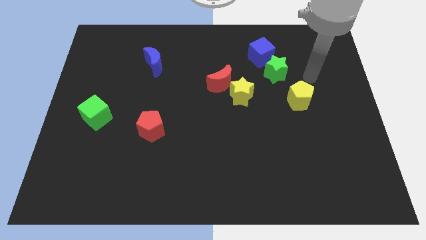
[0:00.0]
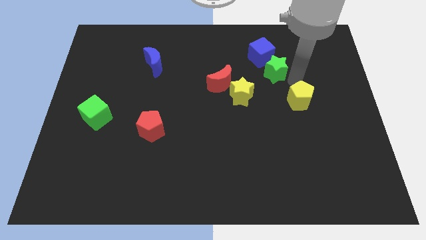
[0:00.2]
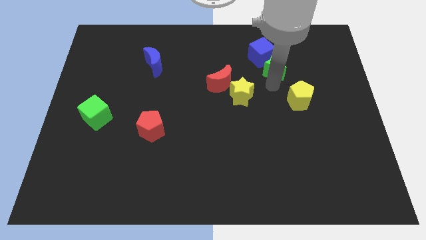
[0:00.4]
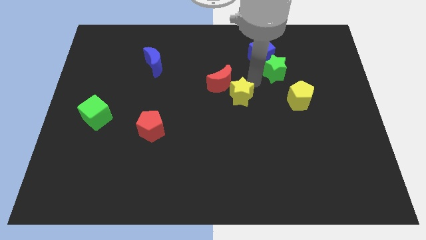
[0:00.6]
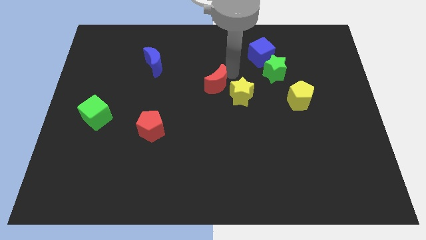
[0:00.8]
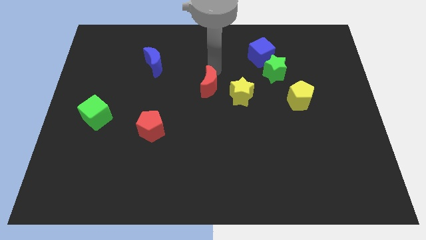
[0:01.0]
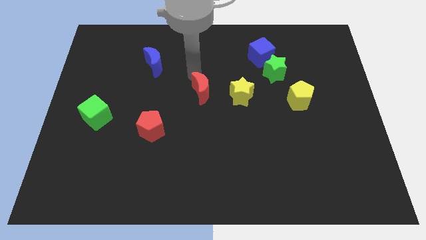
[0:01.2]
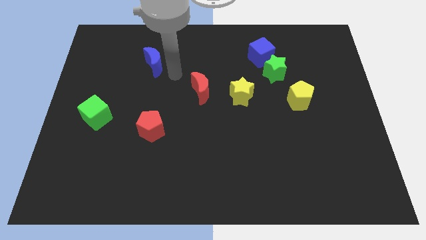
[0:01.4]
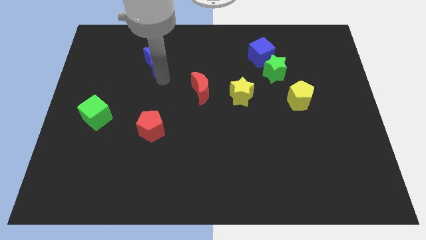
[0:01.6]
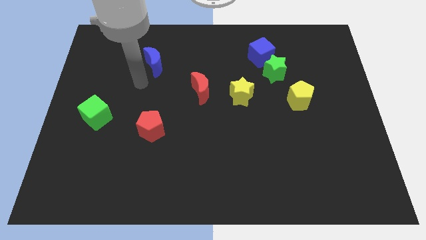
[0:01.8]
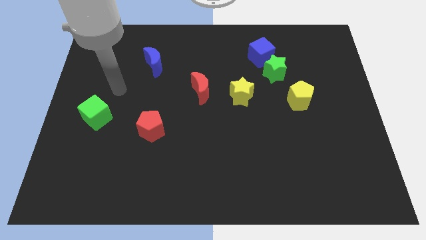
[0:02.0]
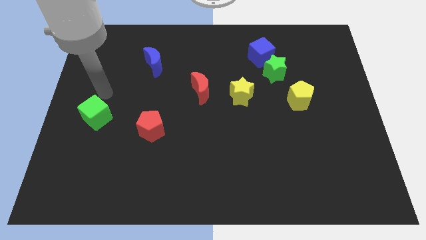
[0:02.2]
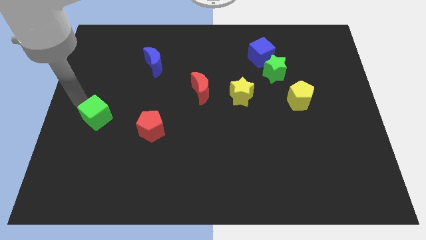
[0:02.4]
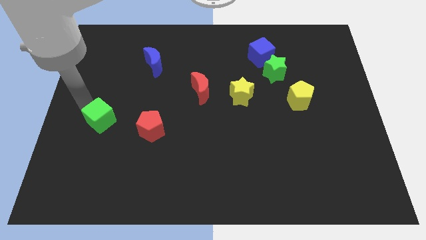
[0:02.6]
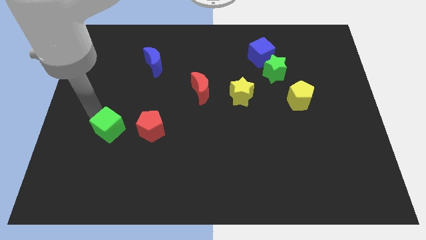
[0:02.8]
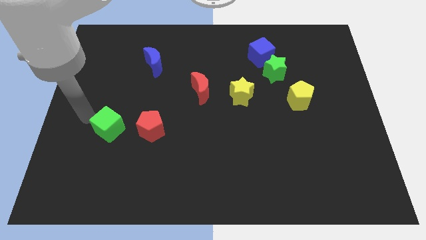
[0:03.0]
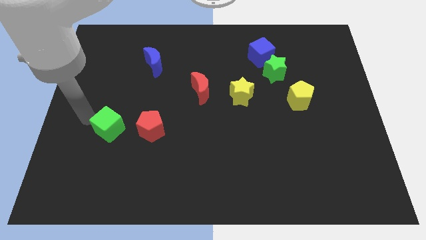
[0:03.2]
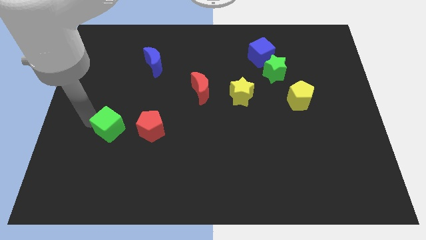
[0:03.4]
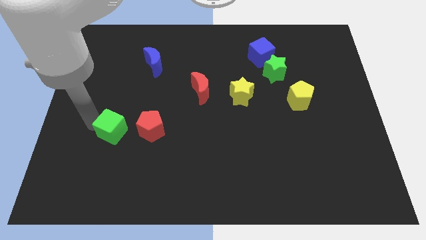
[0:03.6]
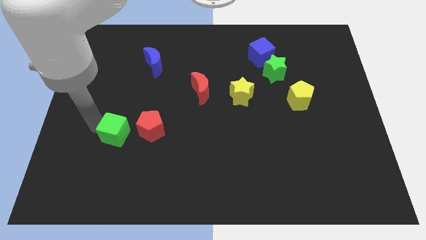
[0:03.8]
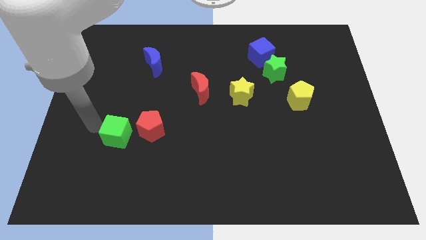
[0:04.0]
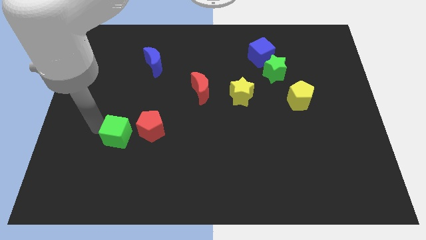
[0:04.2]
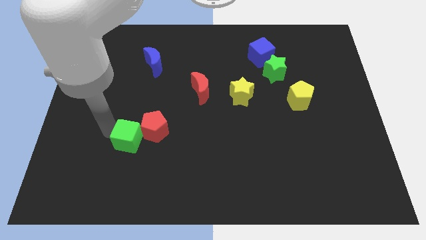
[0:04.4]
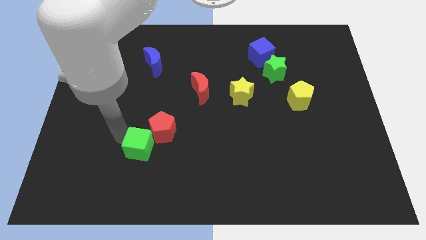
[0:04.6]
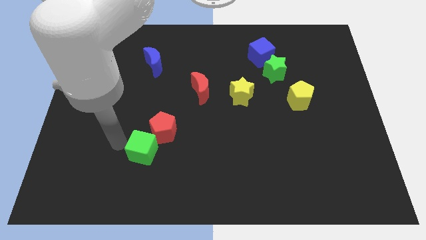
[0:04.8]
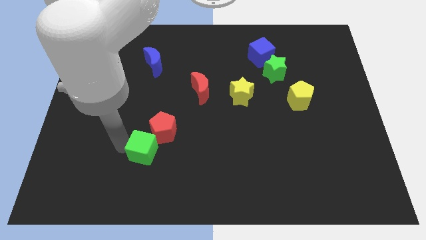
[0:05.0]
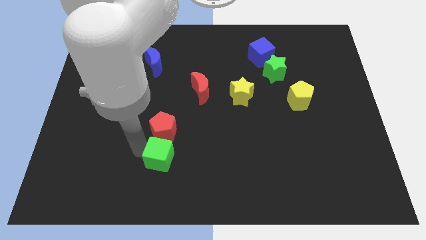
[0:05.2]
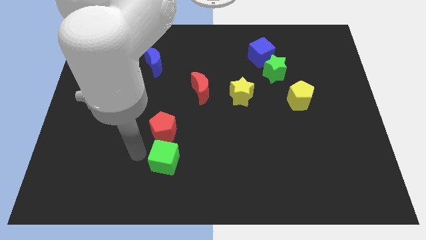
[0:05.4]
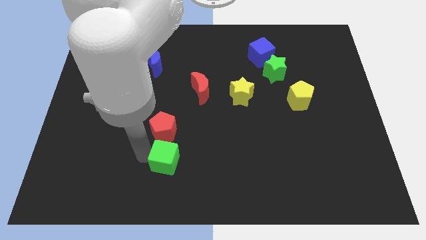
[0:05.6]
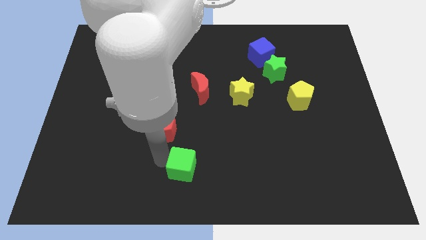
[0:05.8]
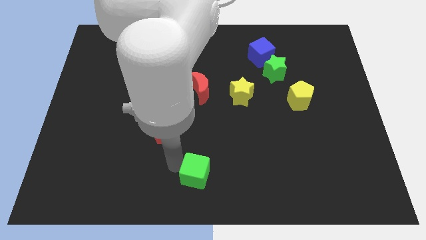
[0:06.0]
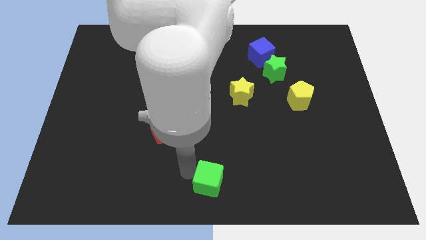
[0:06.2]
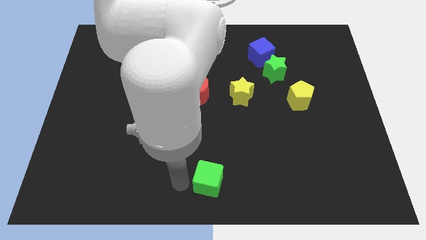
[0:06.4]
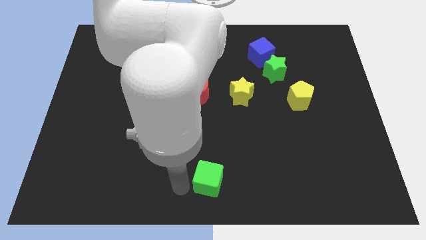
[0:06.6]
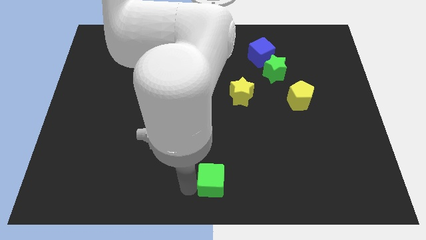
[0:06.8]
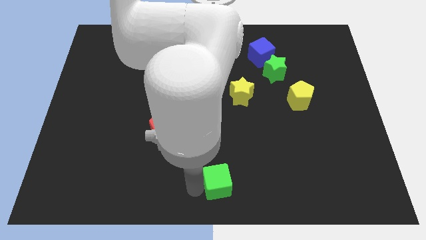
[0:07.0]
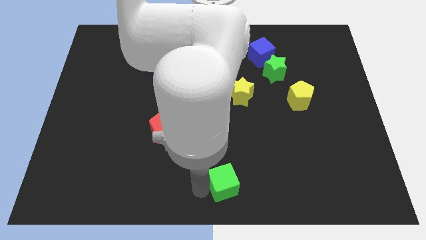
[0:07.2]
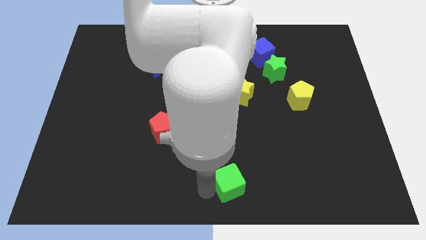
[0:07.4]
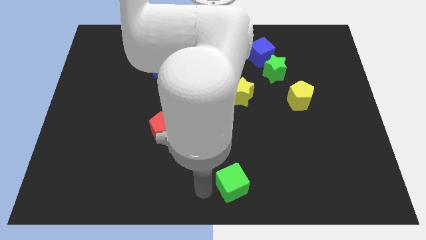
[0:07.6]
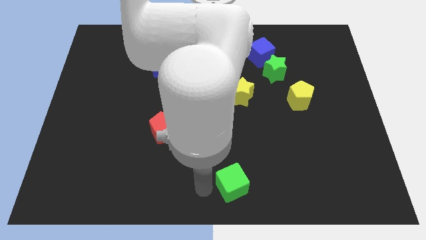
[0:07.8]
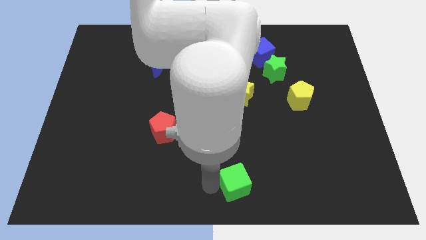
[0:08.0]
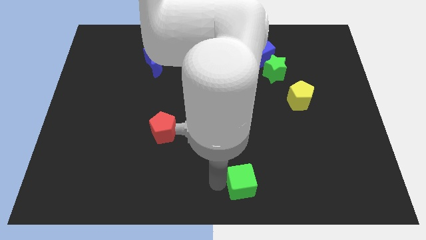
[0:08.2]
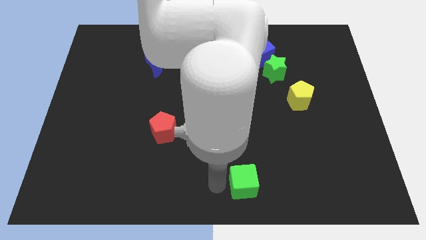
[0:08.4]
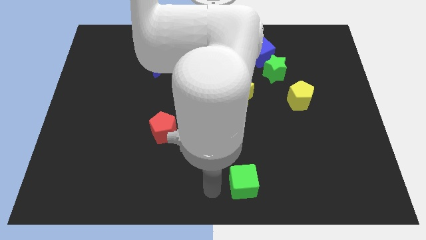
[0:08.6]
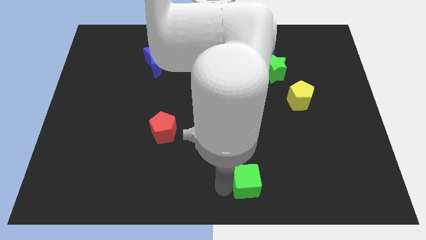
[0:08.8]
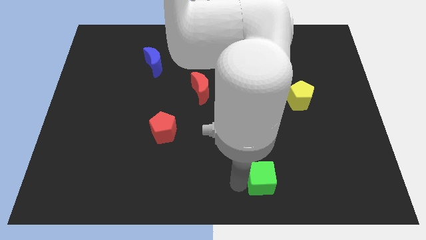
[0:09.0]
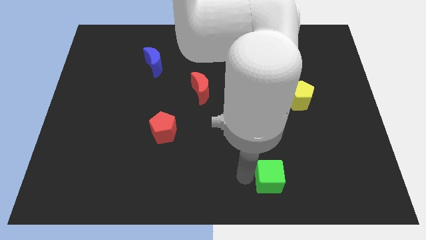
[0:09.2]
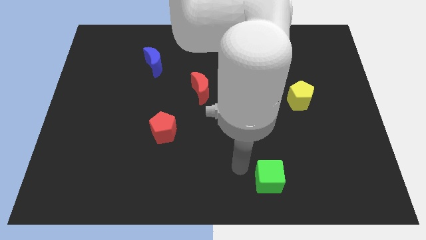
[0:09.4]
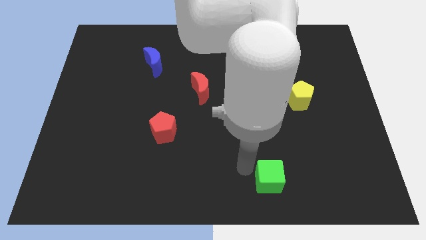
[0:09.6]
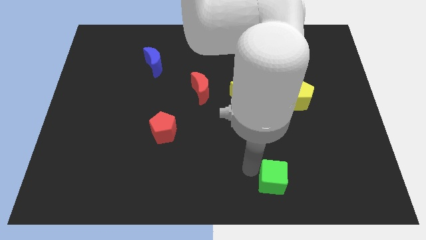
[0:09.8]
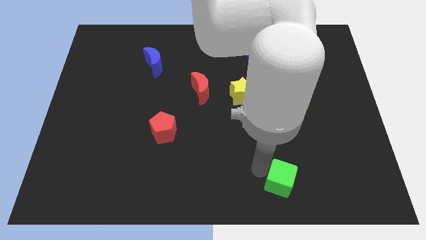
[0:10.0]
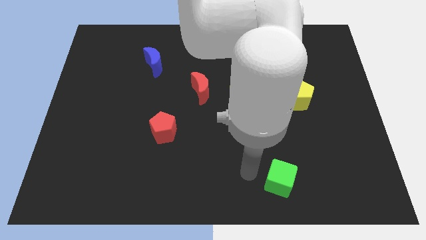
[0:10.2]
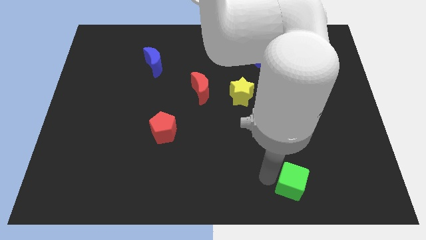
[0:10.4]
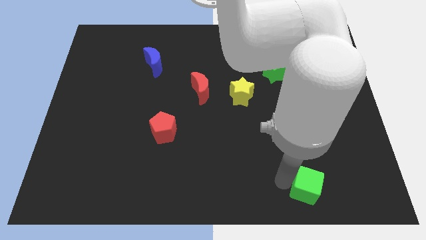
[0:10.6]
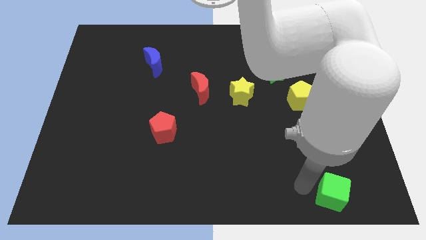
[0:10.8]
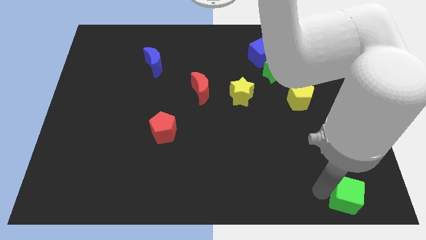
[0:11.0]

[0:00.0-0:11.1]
move the green cube to the bottom right corner

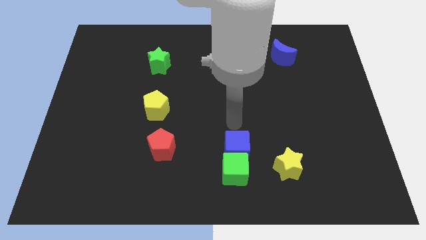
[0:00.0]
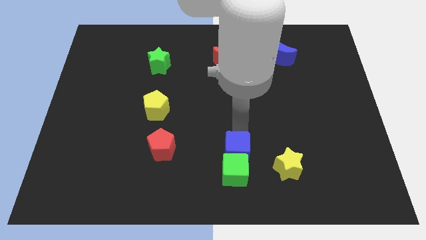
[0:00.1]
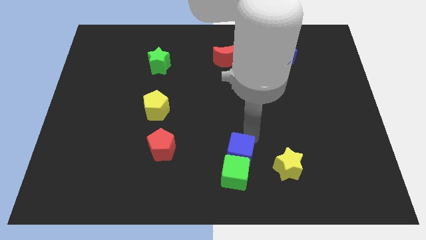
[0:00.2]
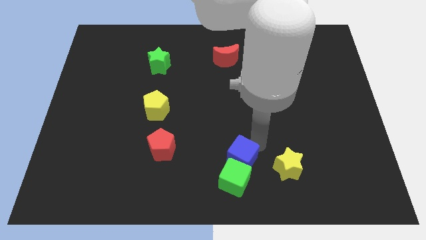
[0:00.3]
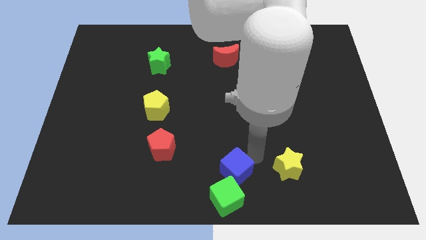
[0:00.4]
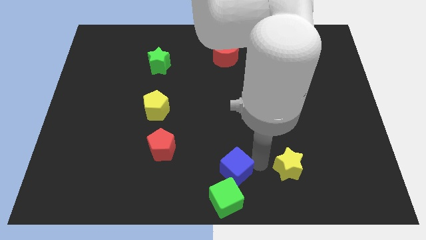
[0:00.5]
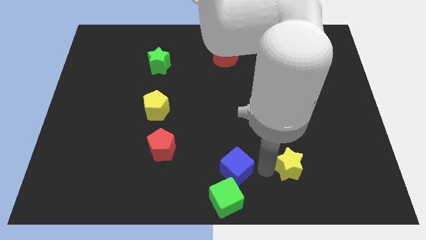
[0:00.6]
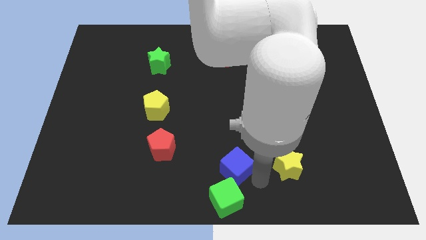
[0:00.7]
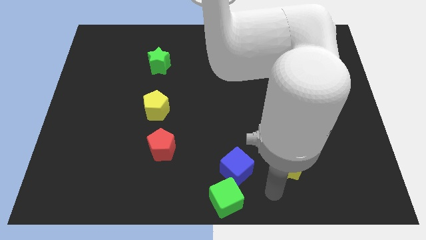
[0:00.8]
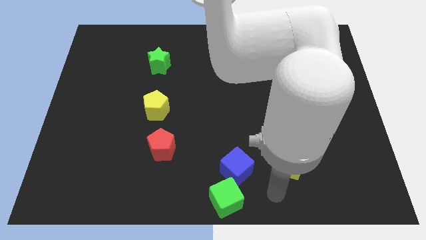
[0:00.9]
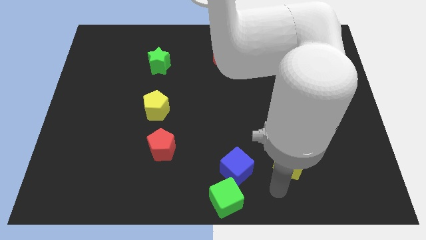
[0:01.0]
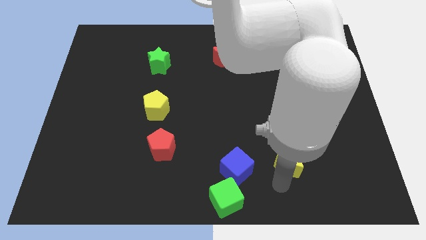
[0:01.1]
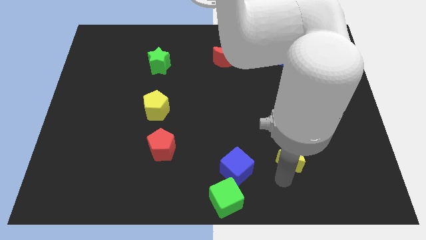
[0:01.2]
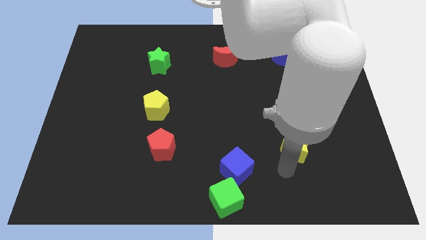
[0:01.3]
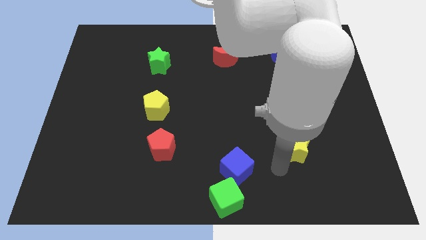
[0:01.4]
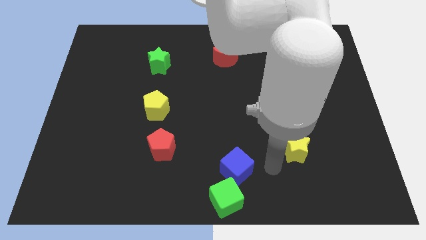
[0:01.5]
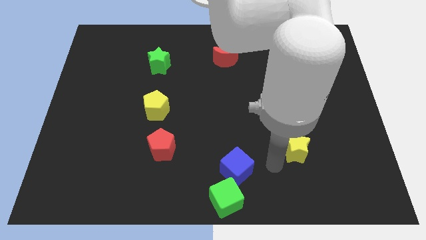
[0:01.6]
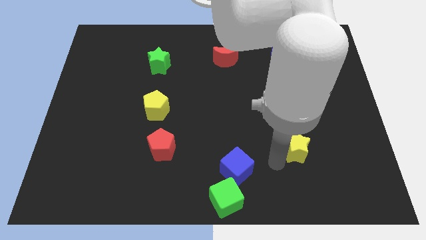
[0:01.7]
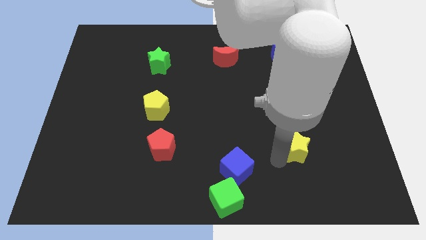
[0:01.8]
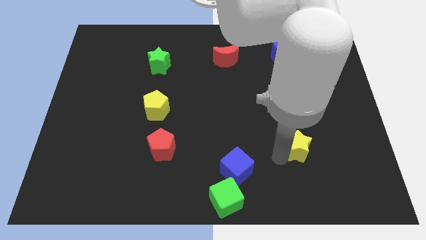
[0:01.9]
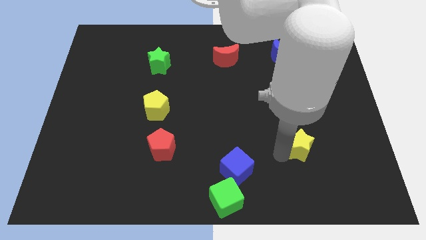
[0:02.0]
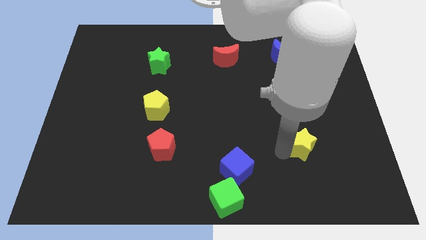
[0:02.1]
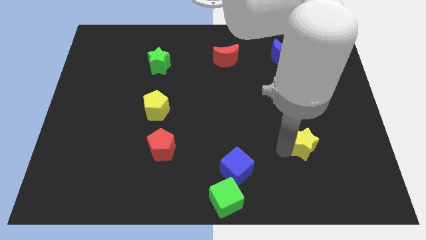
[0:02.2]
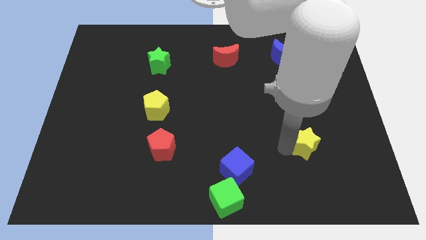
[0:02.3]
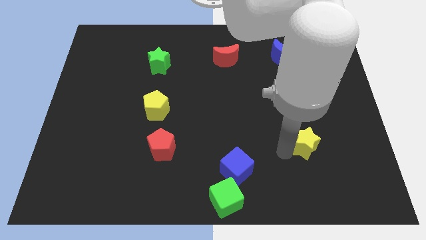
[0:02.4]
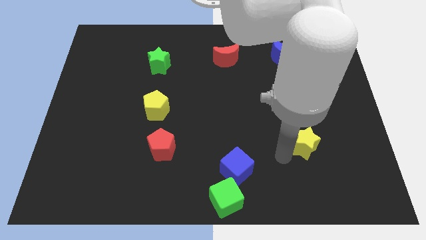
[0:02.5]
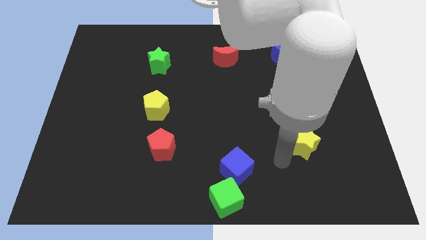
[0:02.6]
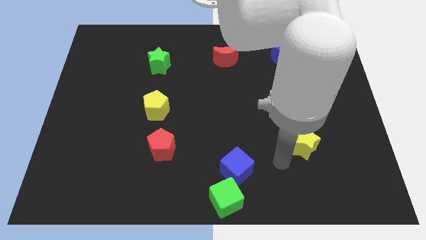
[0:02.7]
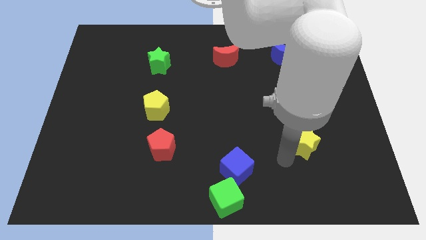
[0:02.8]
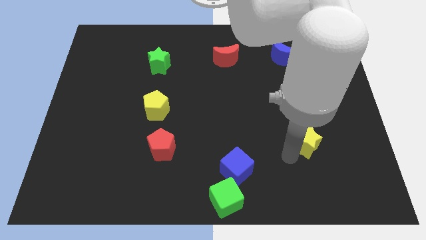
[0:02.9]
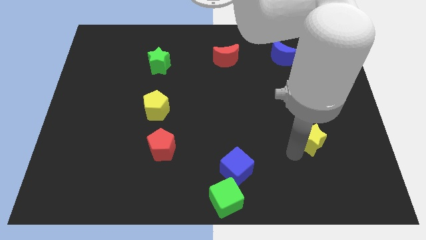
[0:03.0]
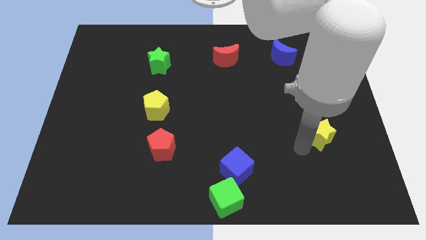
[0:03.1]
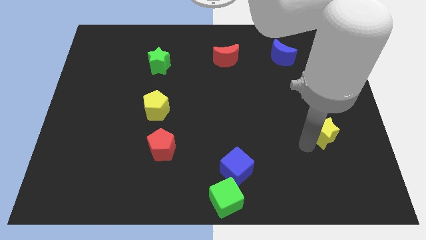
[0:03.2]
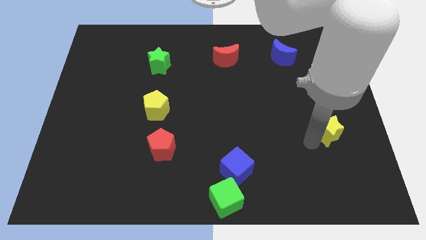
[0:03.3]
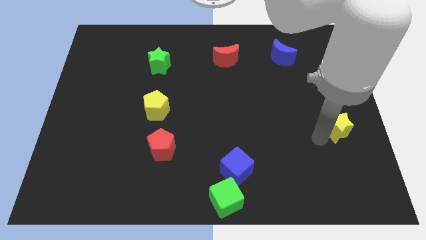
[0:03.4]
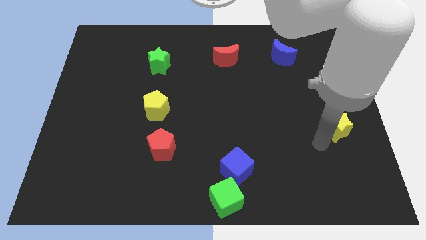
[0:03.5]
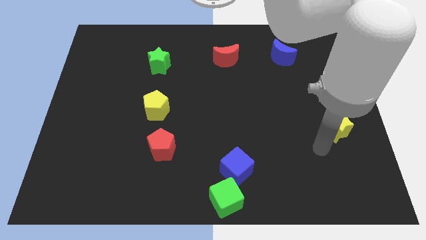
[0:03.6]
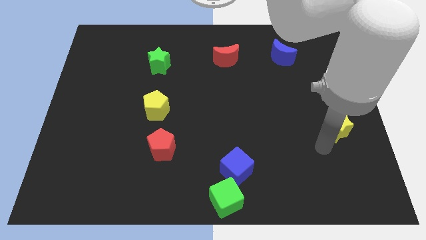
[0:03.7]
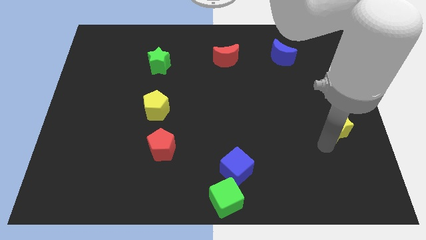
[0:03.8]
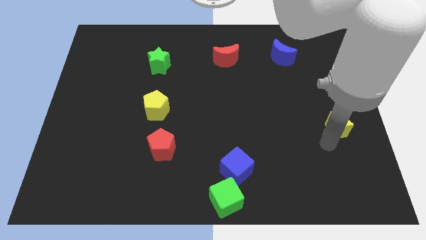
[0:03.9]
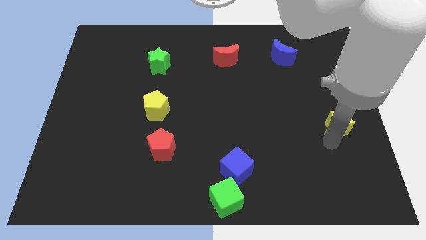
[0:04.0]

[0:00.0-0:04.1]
push the yellow star to the center right
